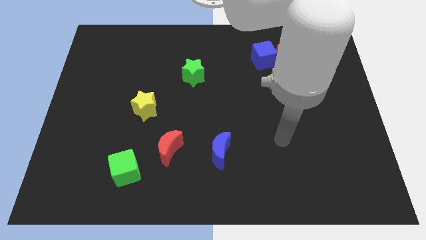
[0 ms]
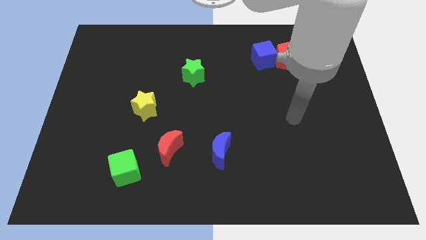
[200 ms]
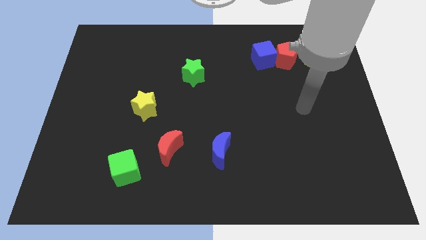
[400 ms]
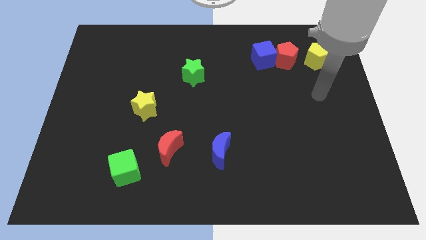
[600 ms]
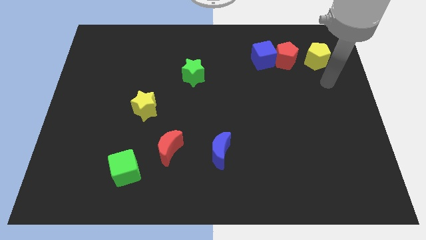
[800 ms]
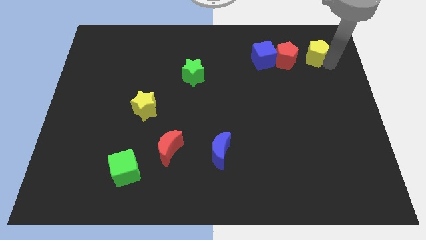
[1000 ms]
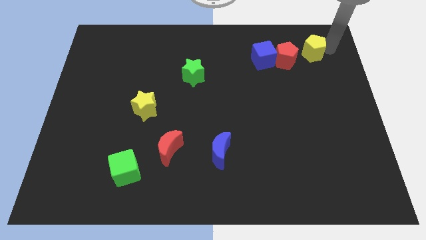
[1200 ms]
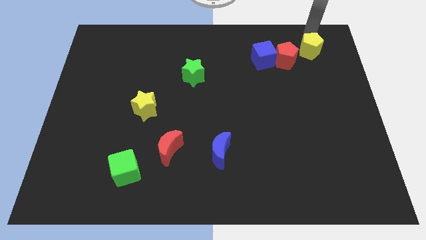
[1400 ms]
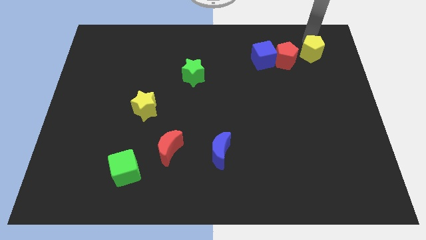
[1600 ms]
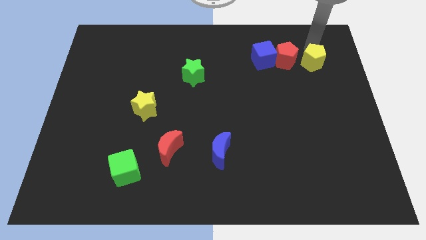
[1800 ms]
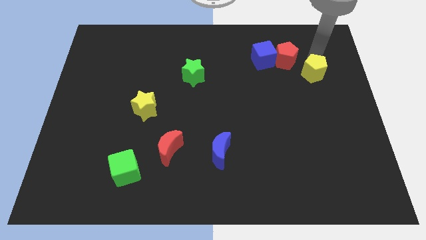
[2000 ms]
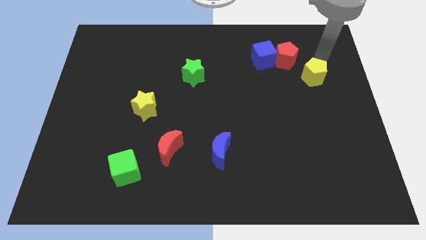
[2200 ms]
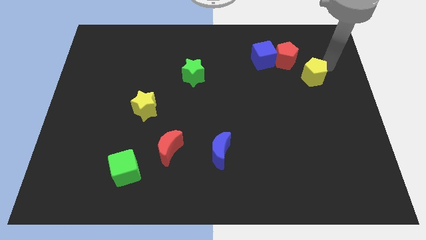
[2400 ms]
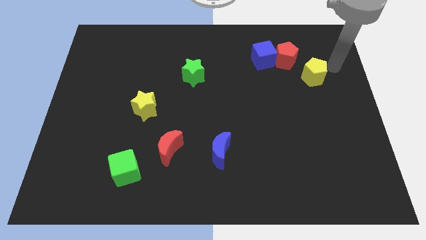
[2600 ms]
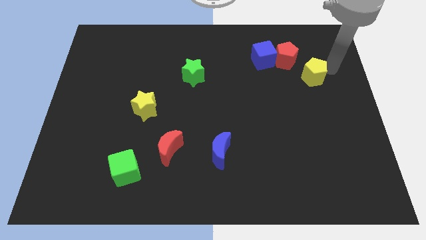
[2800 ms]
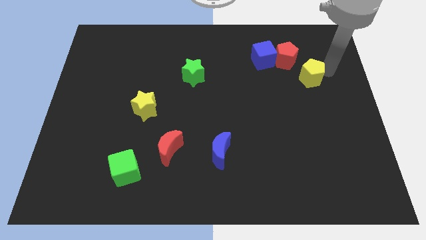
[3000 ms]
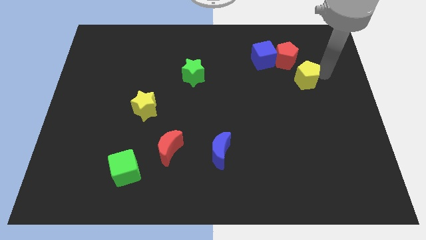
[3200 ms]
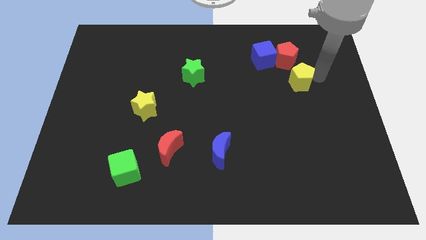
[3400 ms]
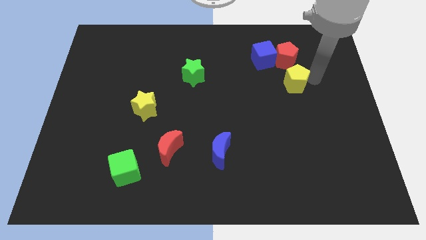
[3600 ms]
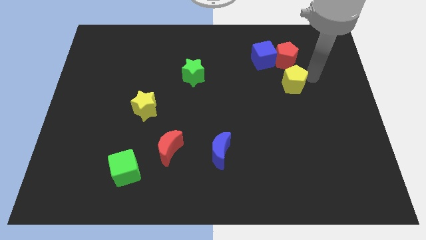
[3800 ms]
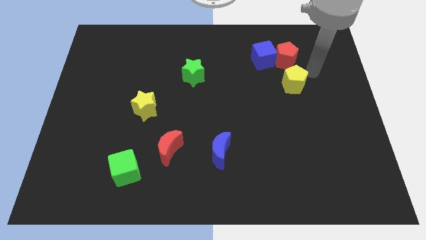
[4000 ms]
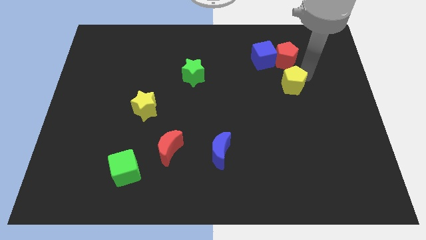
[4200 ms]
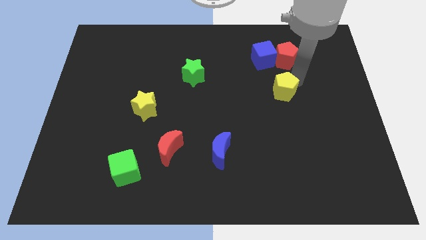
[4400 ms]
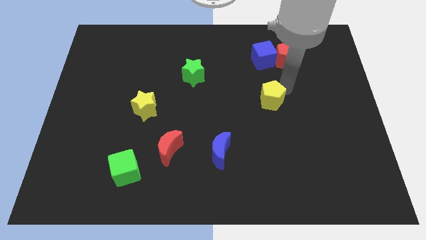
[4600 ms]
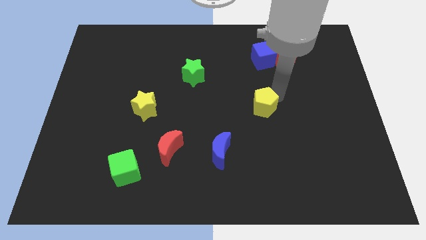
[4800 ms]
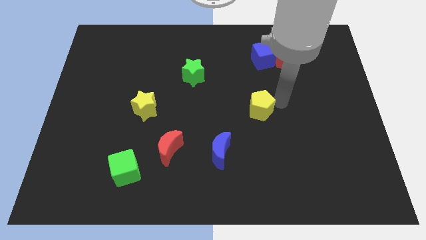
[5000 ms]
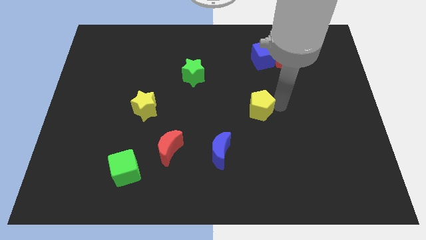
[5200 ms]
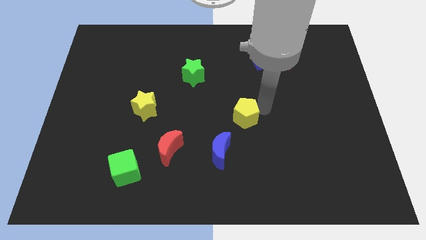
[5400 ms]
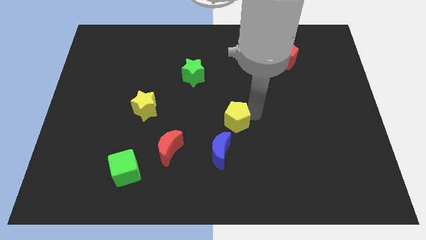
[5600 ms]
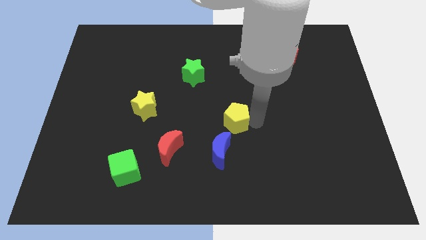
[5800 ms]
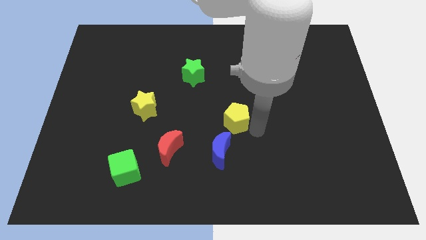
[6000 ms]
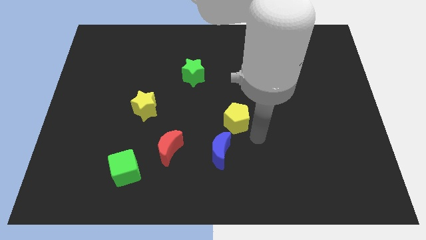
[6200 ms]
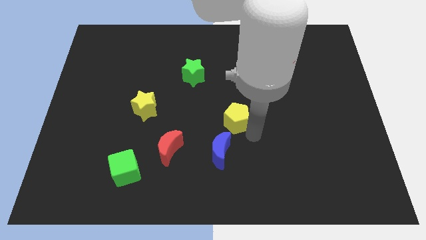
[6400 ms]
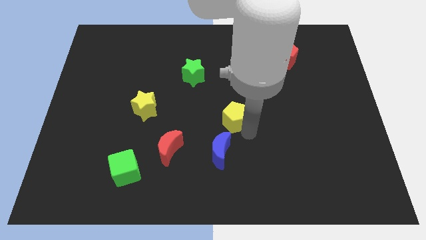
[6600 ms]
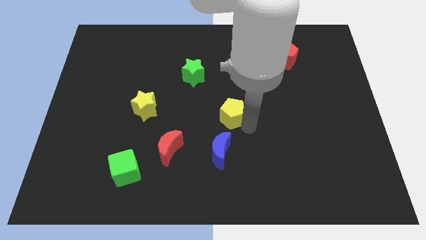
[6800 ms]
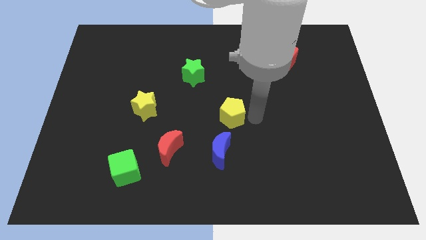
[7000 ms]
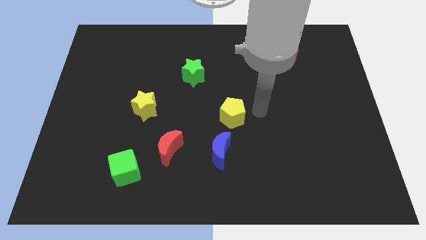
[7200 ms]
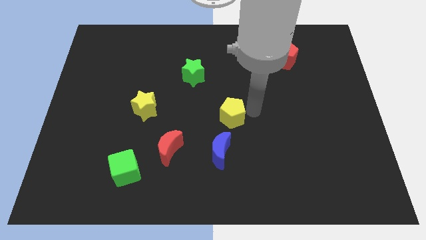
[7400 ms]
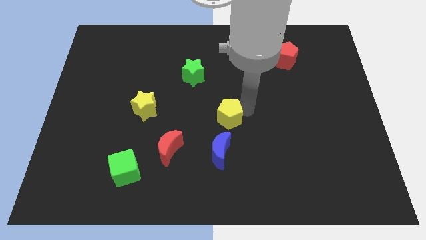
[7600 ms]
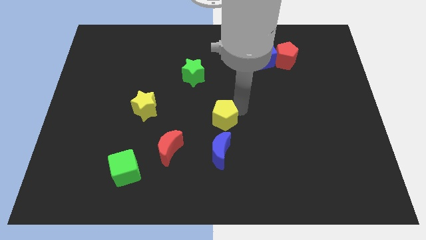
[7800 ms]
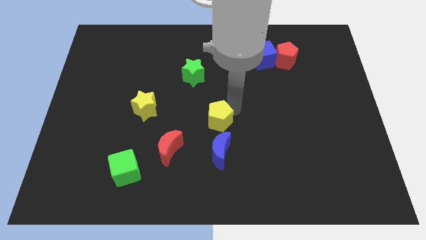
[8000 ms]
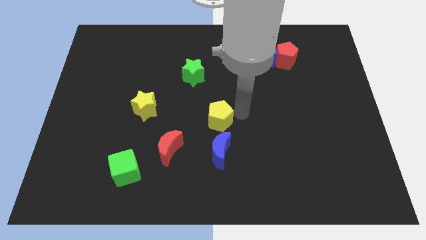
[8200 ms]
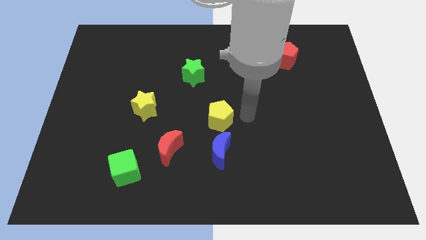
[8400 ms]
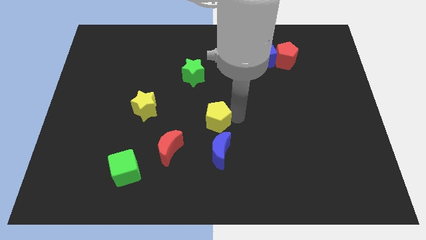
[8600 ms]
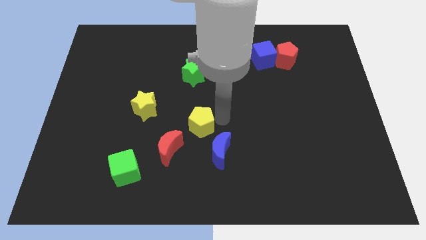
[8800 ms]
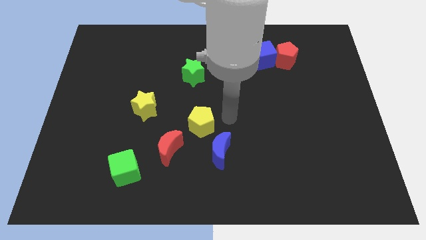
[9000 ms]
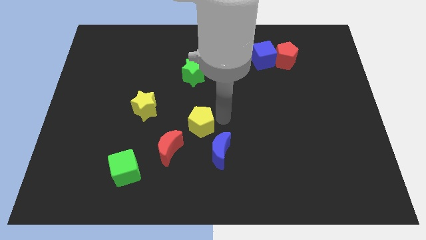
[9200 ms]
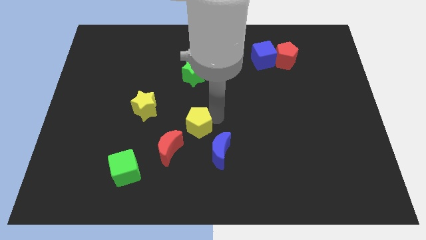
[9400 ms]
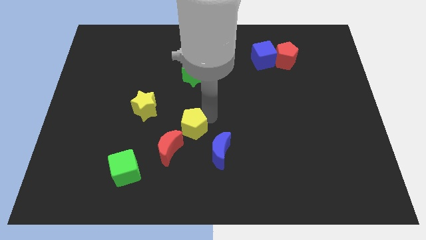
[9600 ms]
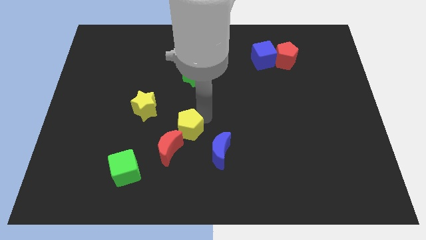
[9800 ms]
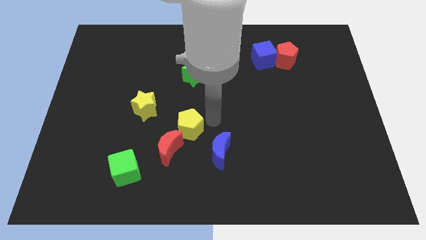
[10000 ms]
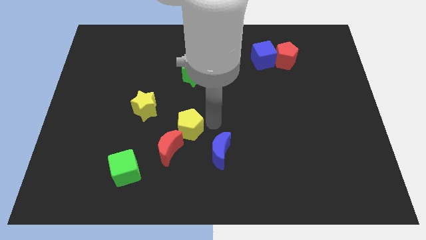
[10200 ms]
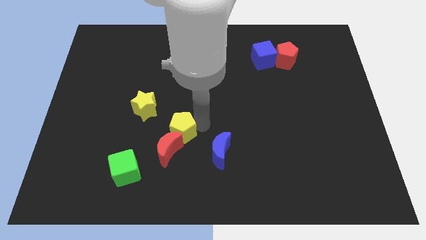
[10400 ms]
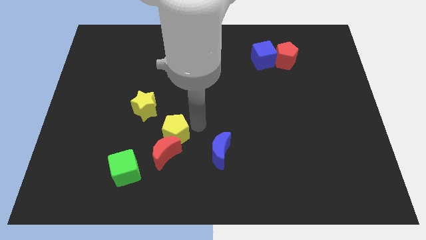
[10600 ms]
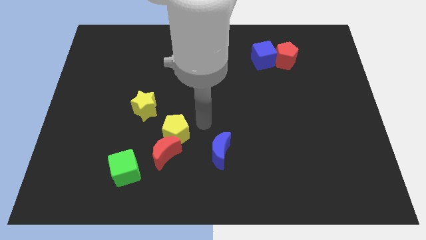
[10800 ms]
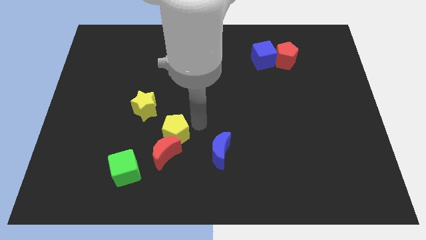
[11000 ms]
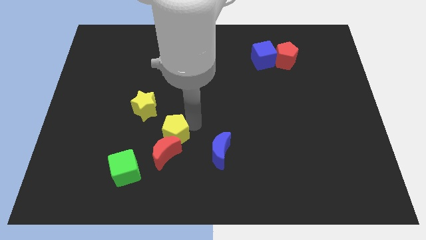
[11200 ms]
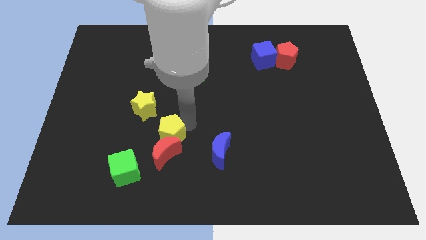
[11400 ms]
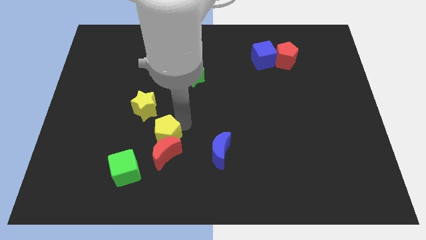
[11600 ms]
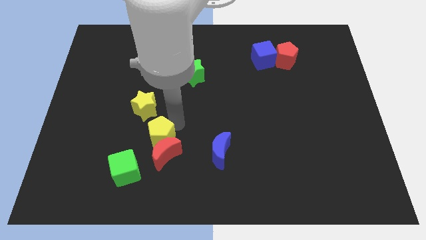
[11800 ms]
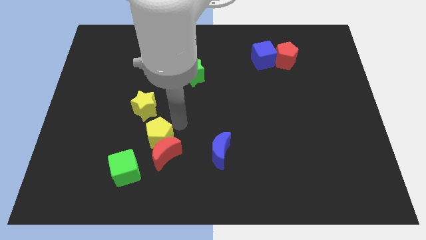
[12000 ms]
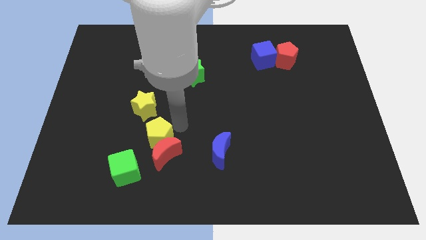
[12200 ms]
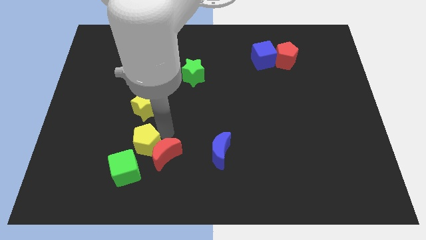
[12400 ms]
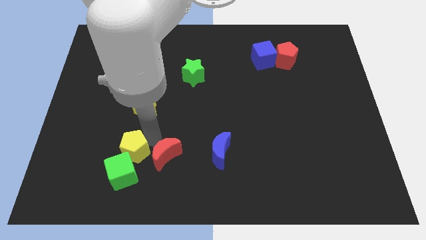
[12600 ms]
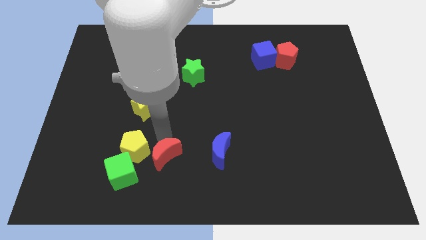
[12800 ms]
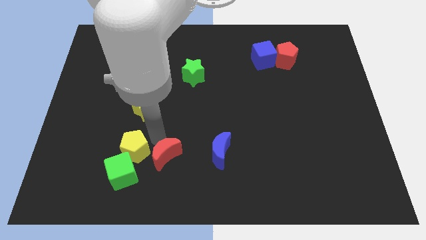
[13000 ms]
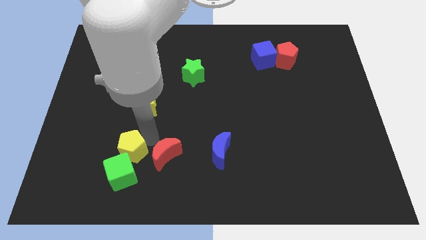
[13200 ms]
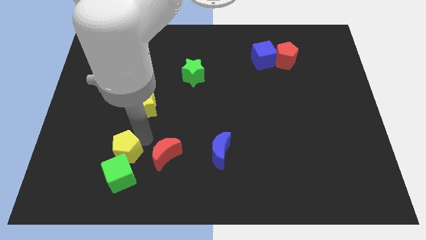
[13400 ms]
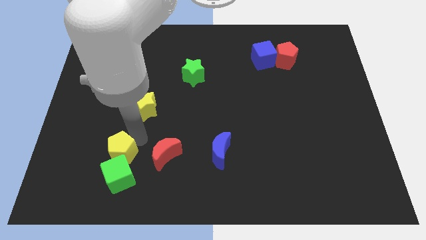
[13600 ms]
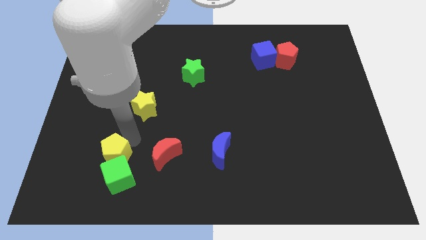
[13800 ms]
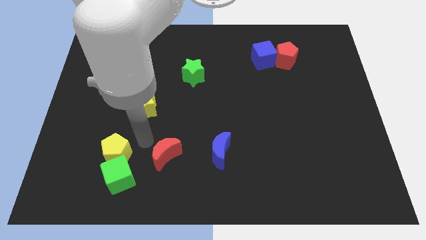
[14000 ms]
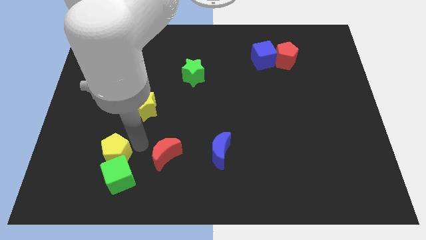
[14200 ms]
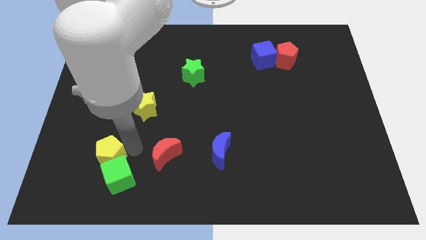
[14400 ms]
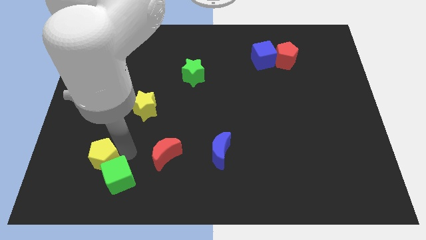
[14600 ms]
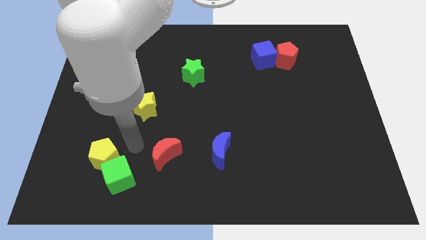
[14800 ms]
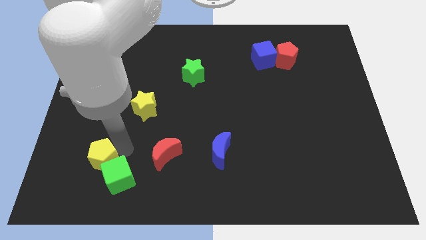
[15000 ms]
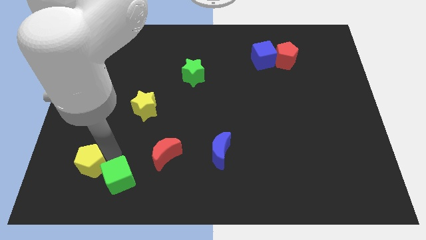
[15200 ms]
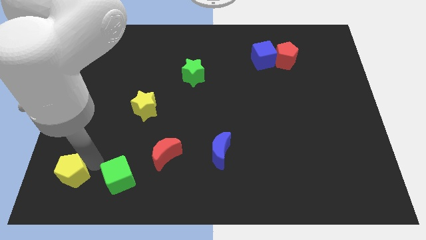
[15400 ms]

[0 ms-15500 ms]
slide the yellow pentagon to the bottom left
